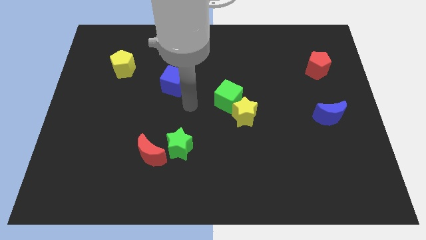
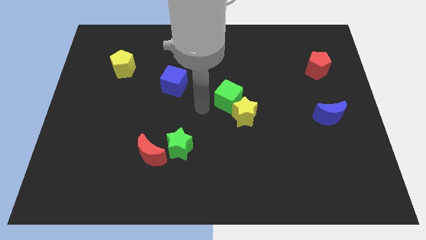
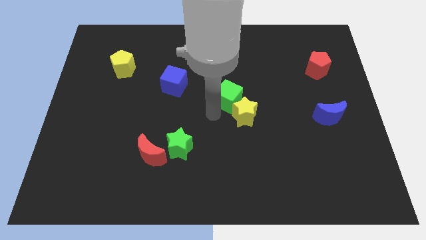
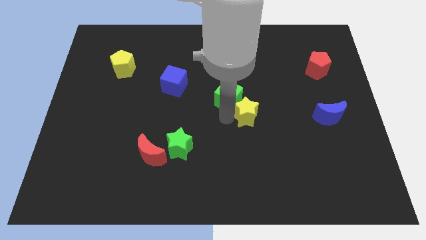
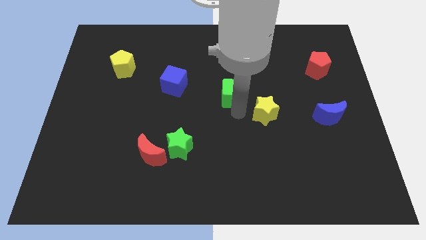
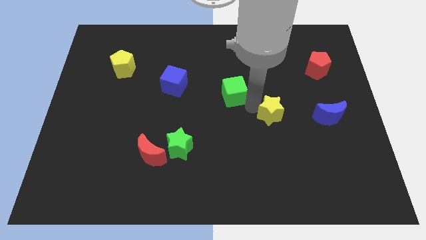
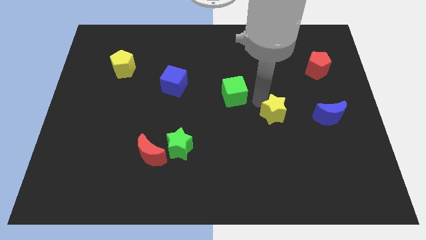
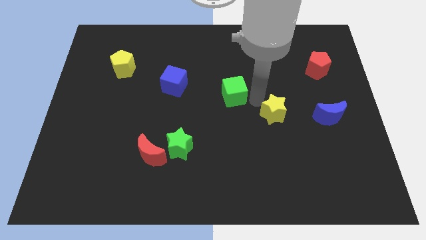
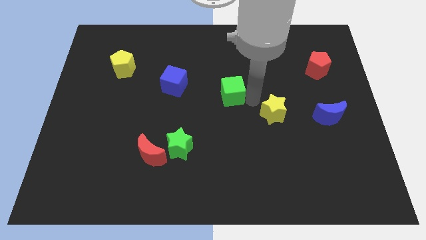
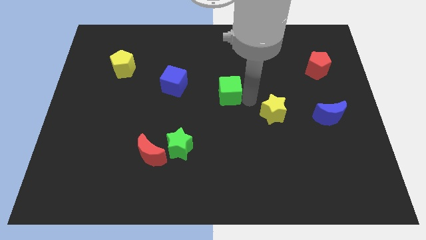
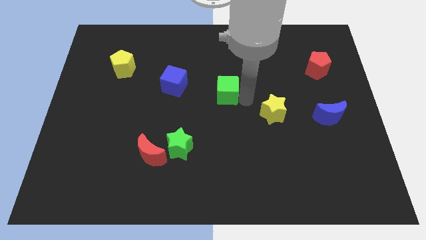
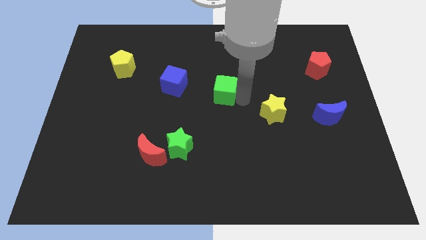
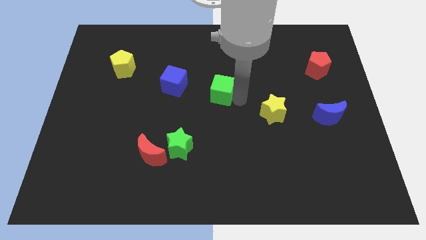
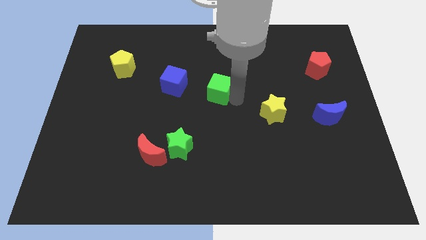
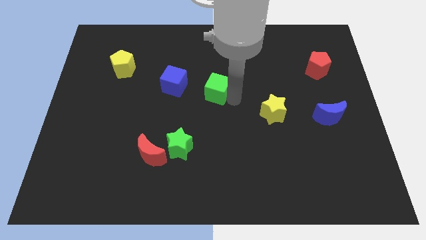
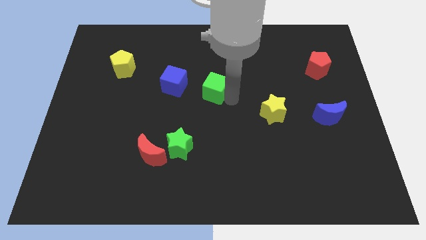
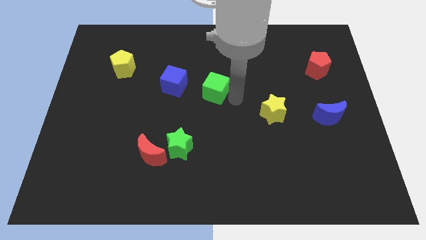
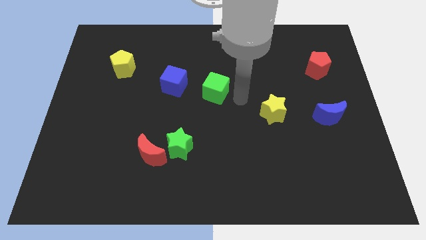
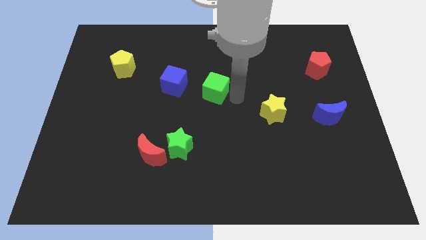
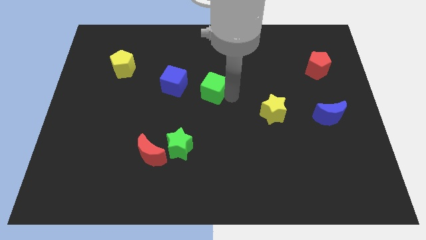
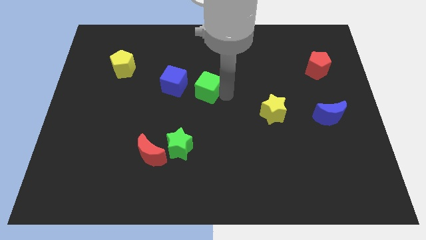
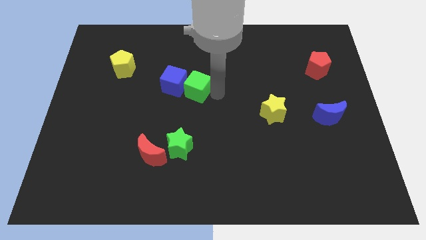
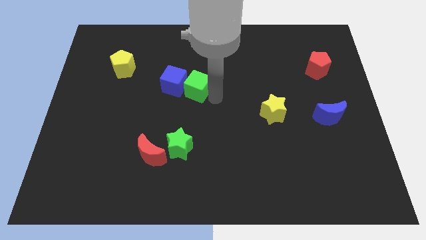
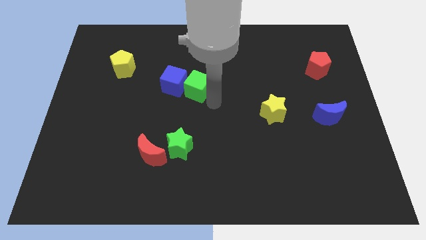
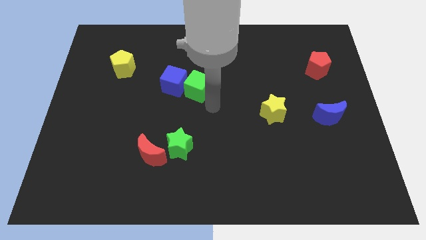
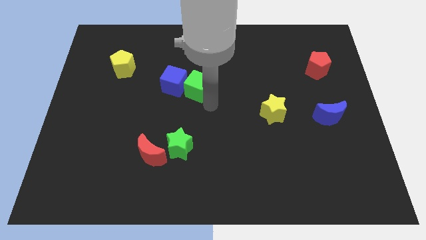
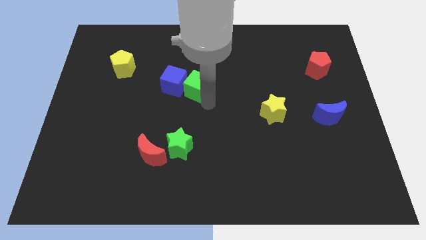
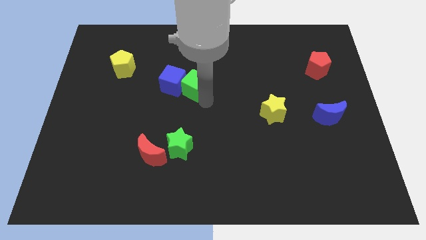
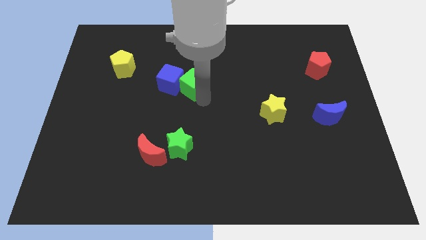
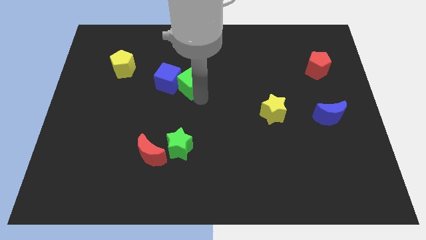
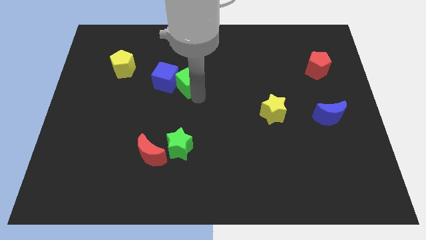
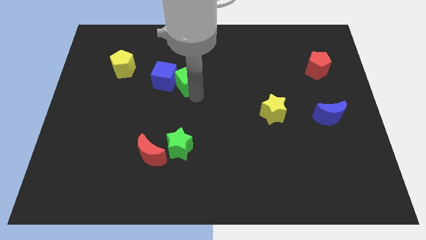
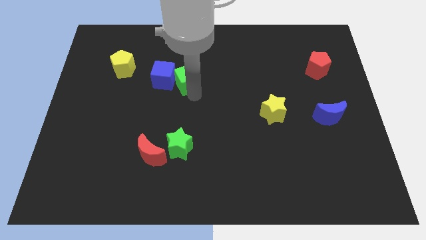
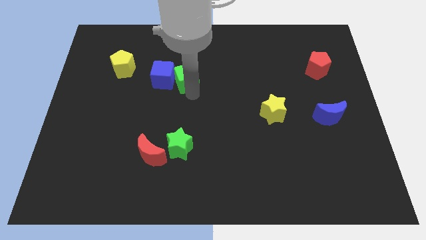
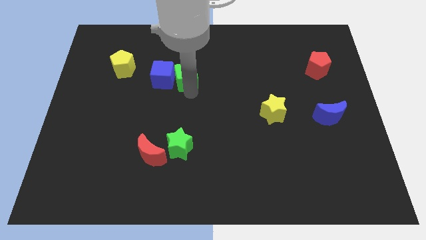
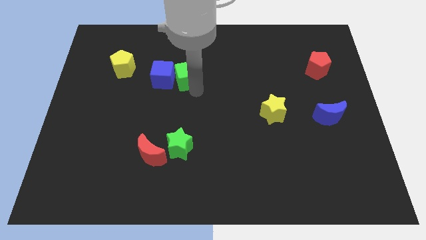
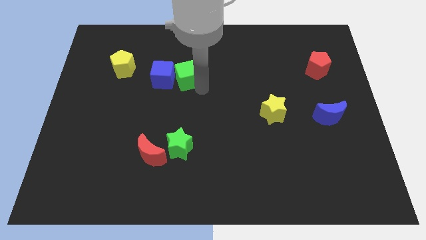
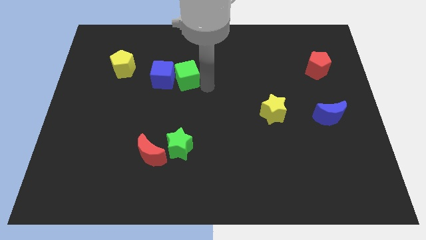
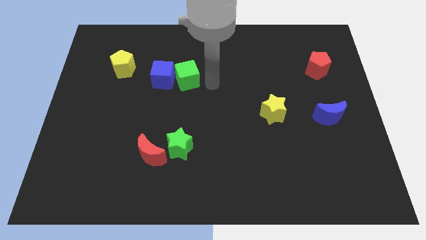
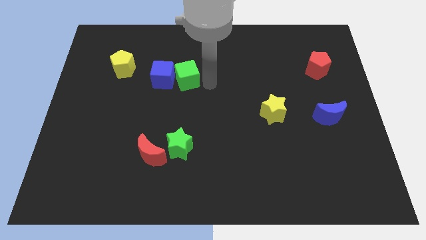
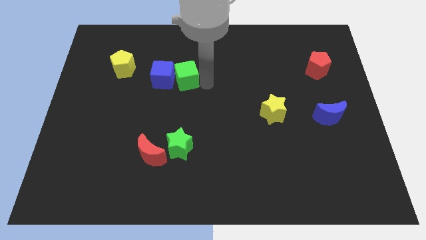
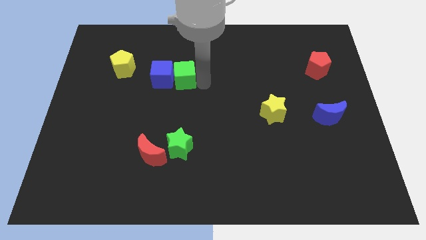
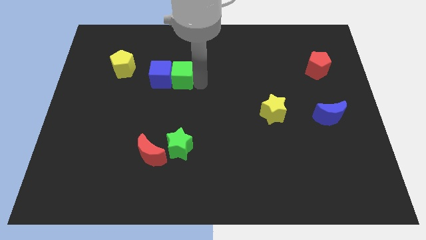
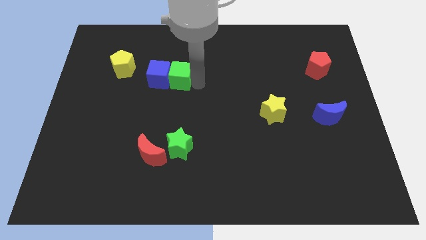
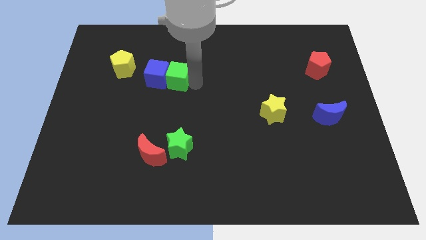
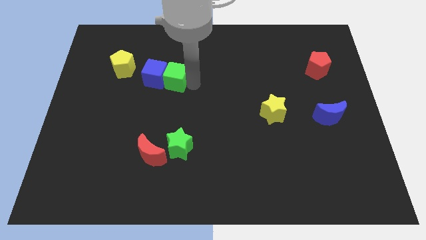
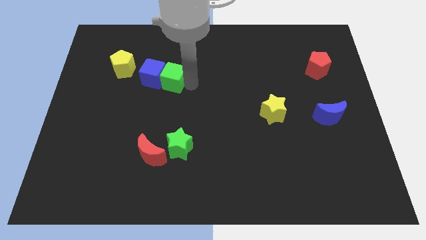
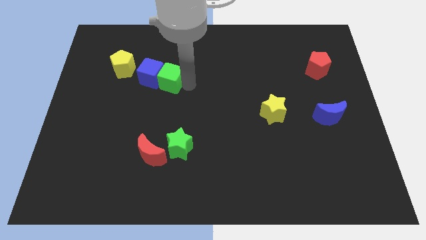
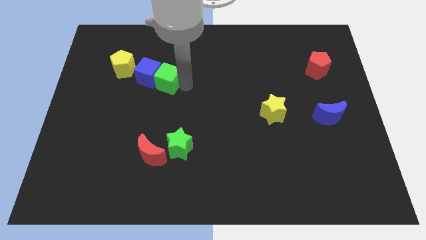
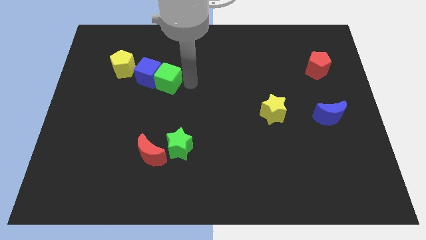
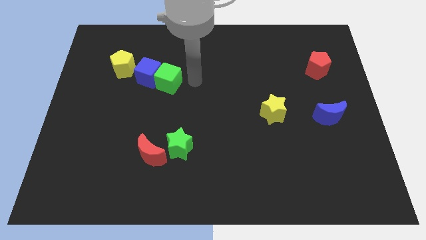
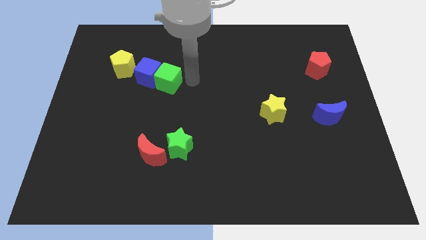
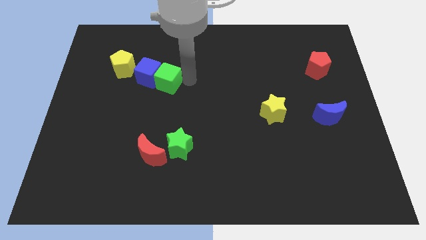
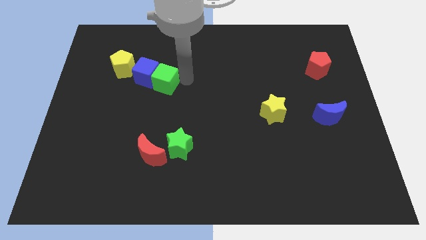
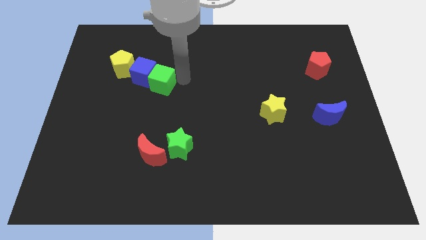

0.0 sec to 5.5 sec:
push the green cube diagonally down and to the right of the yellow pentagon

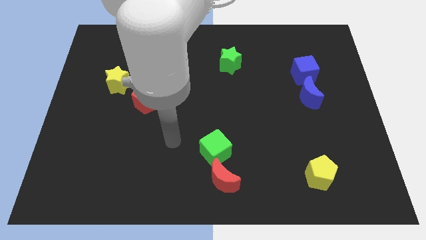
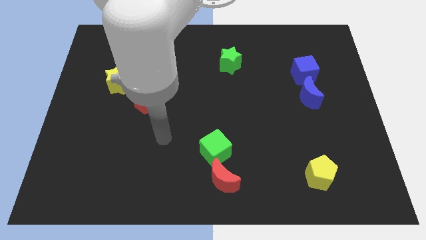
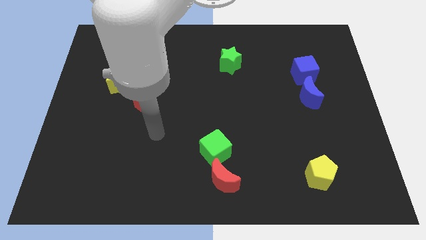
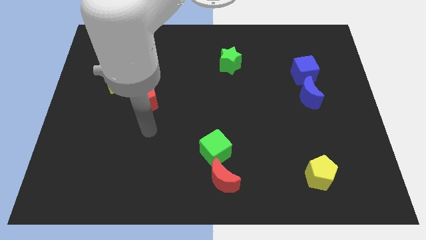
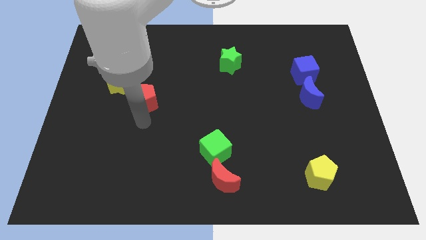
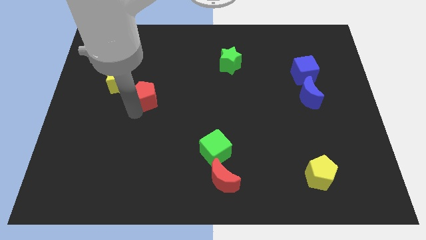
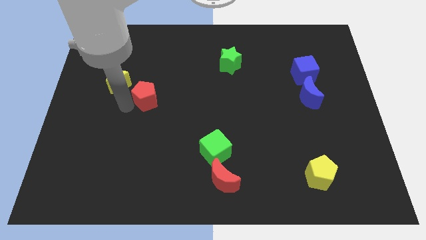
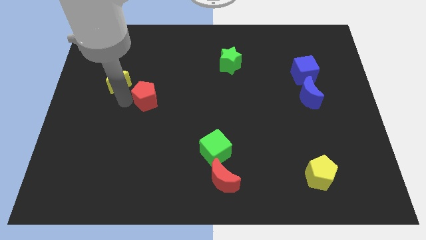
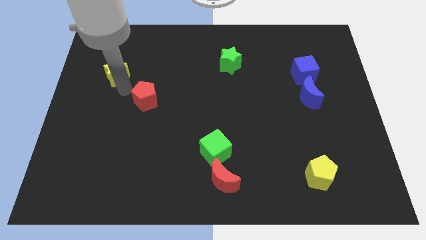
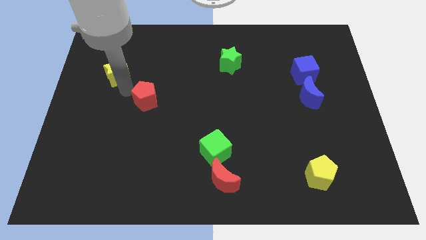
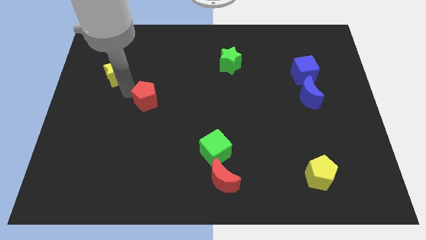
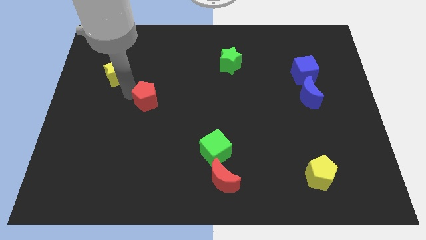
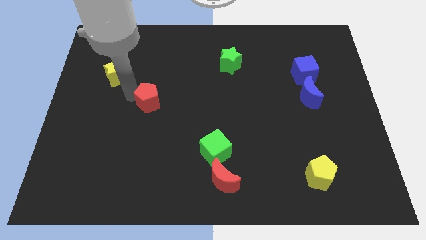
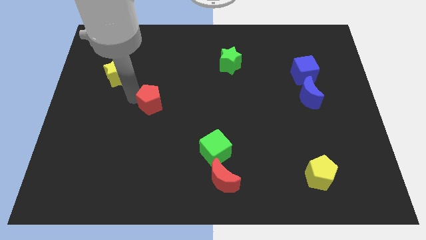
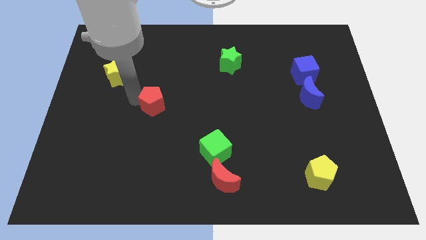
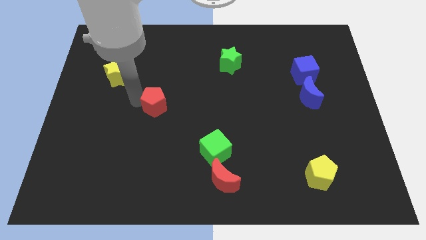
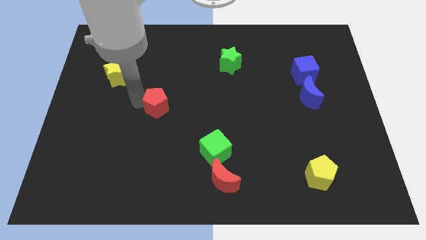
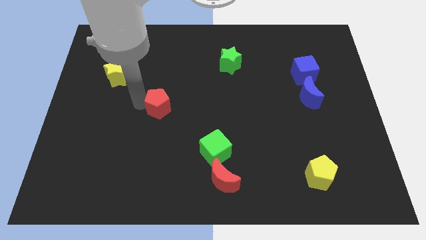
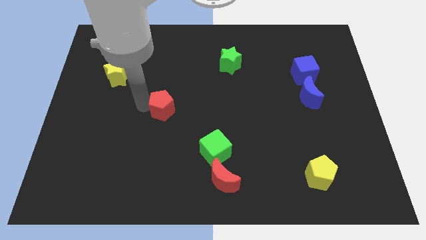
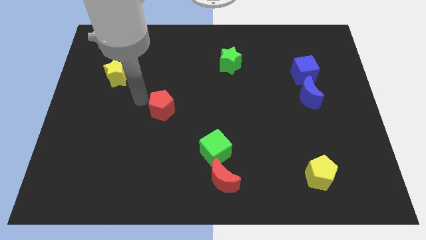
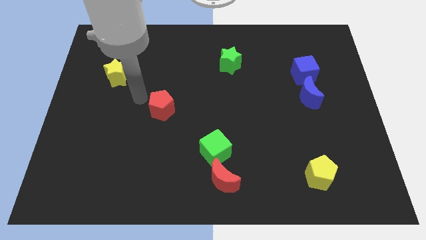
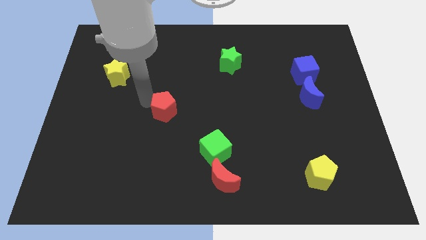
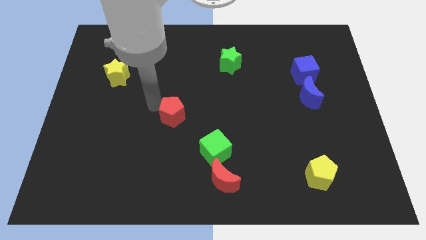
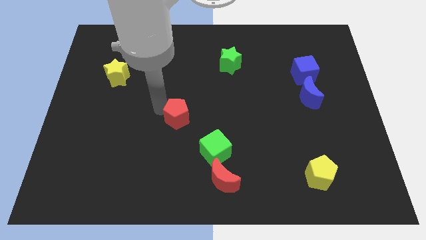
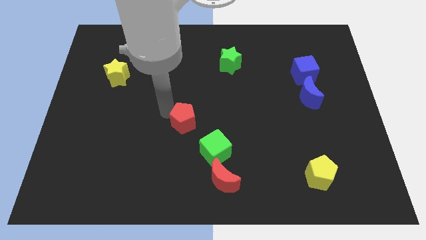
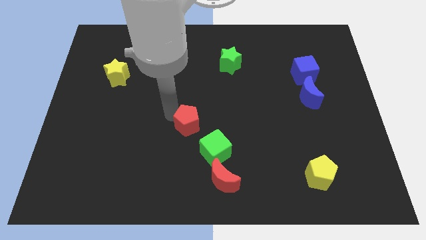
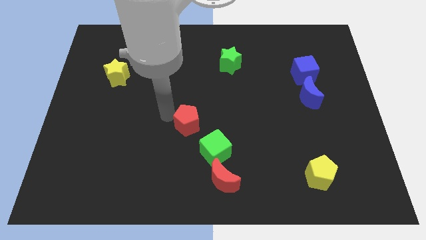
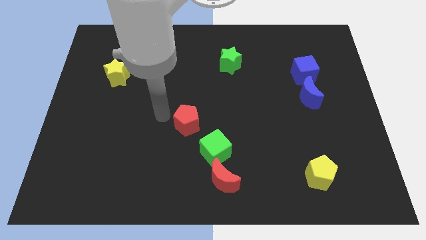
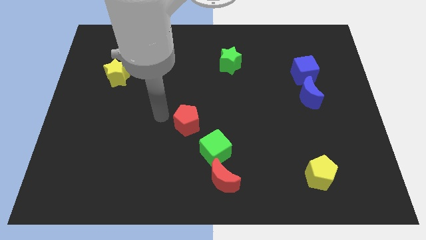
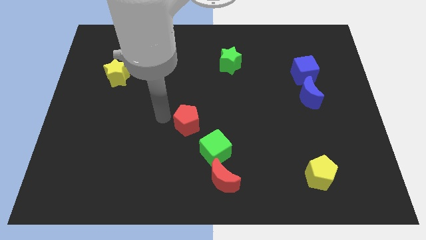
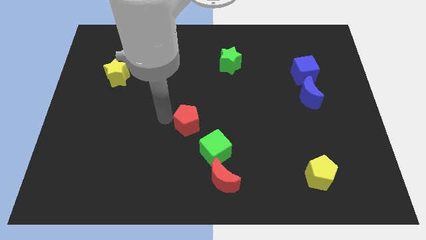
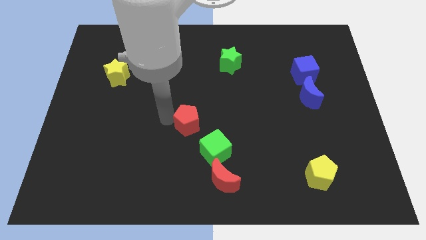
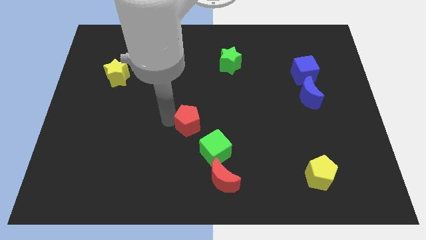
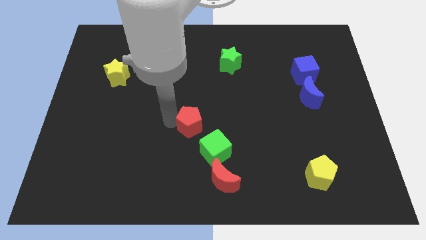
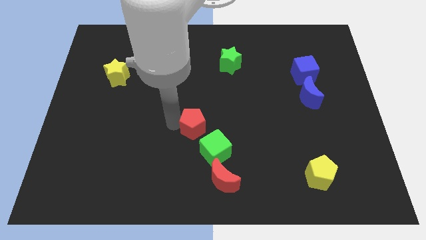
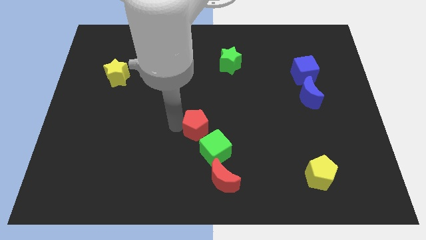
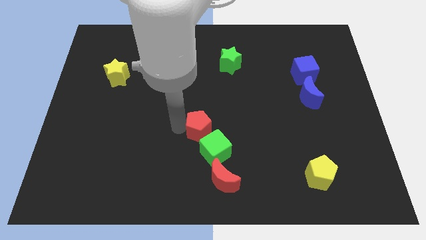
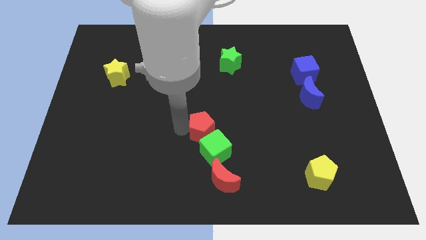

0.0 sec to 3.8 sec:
push the red pentagon to the top of the red moon
